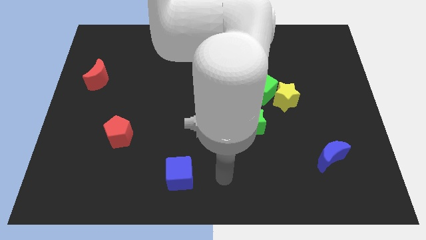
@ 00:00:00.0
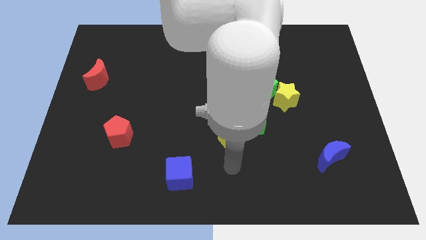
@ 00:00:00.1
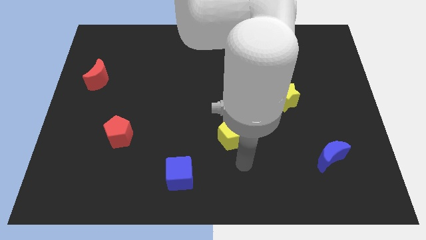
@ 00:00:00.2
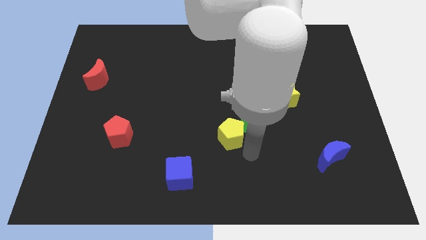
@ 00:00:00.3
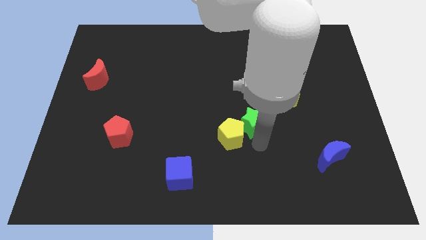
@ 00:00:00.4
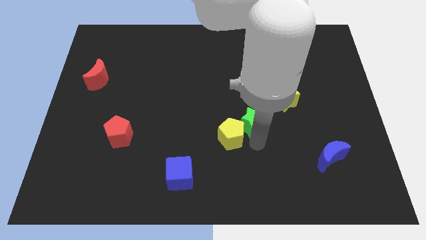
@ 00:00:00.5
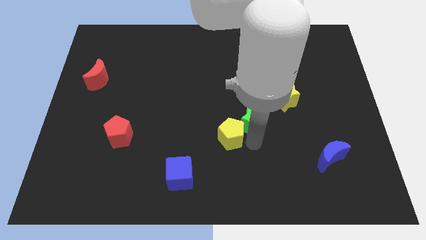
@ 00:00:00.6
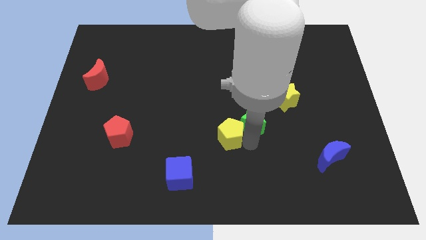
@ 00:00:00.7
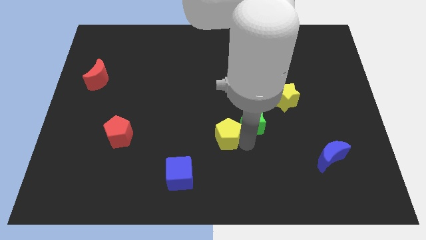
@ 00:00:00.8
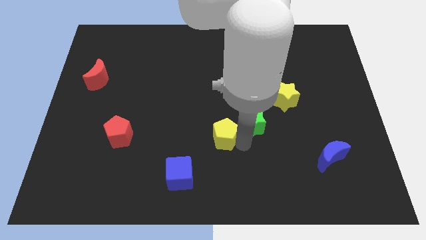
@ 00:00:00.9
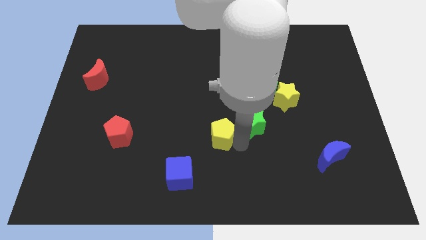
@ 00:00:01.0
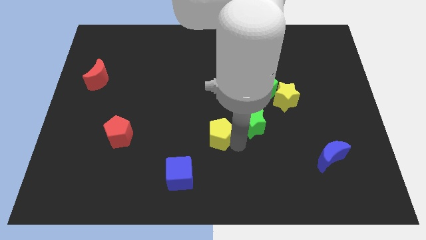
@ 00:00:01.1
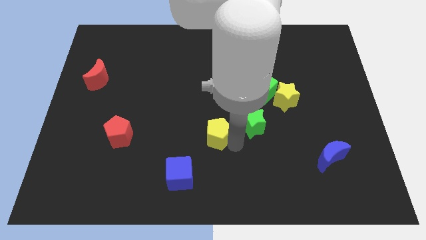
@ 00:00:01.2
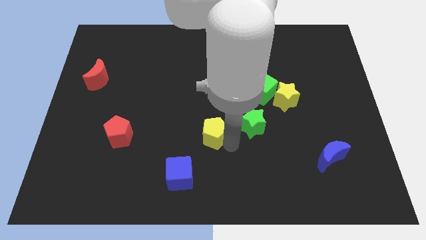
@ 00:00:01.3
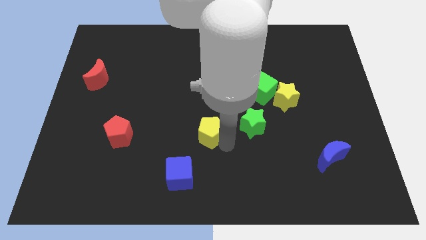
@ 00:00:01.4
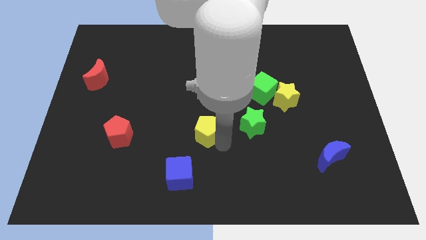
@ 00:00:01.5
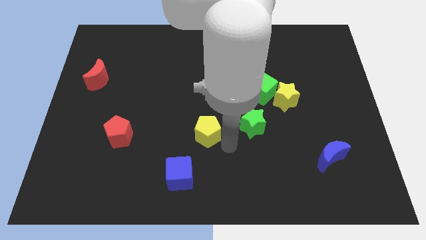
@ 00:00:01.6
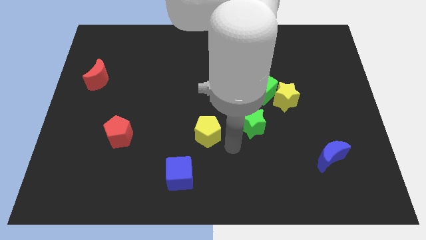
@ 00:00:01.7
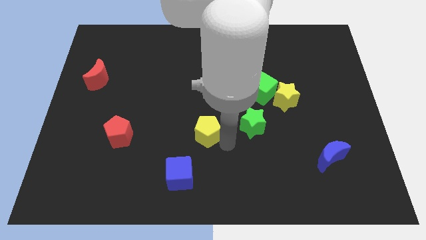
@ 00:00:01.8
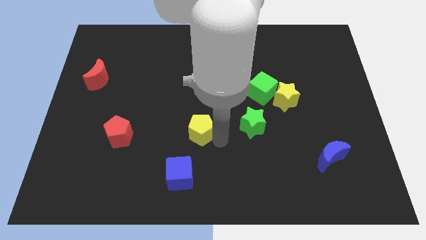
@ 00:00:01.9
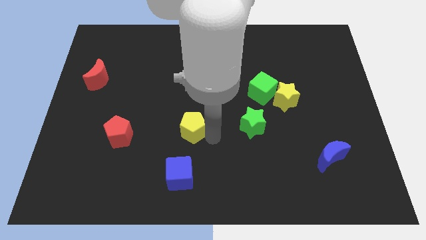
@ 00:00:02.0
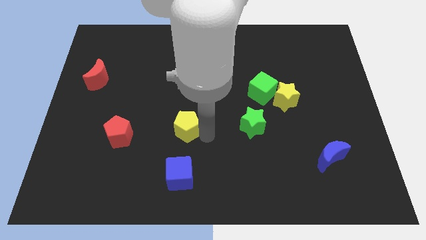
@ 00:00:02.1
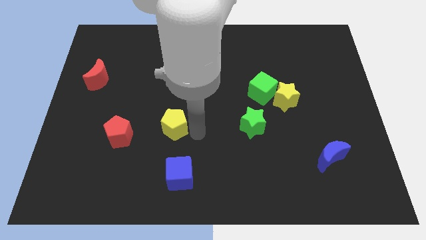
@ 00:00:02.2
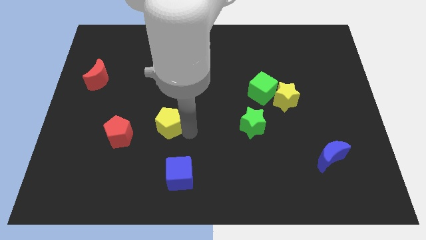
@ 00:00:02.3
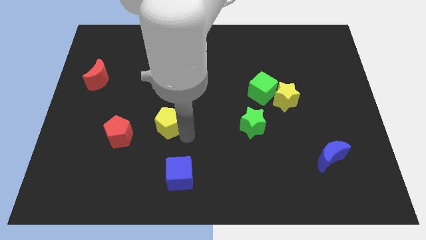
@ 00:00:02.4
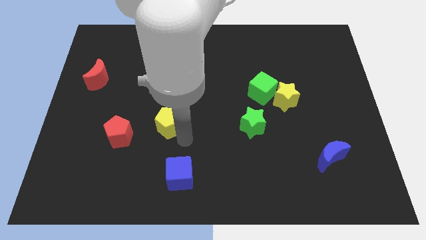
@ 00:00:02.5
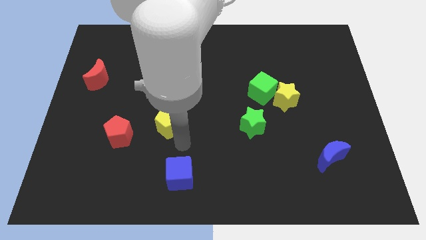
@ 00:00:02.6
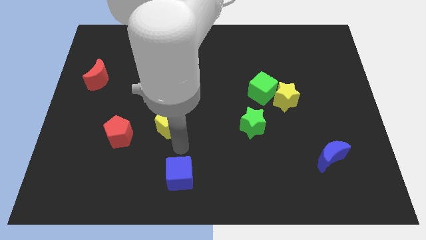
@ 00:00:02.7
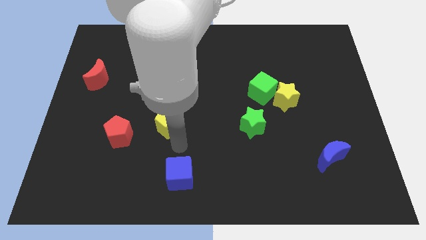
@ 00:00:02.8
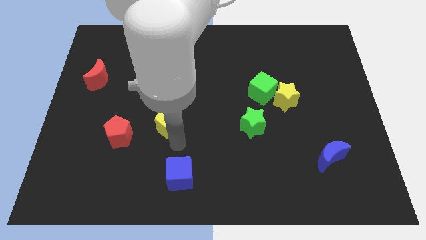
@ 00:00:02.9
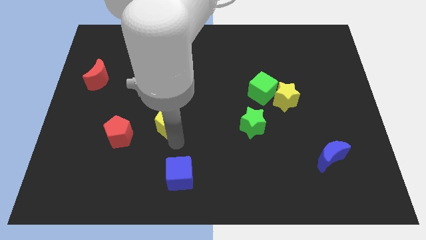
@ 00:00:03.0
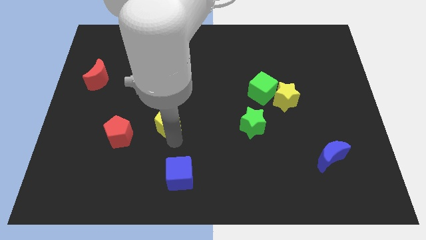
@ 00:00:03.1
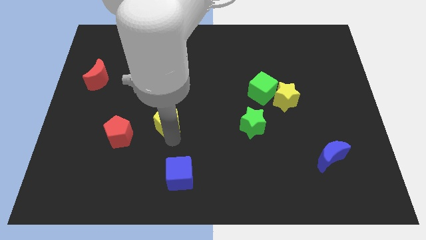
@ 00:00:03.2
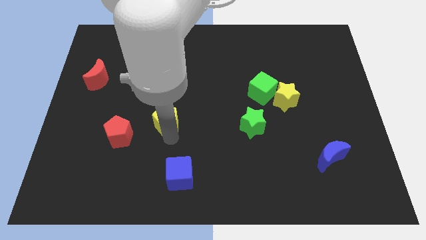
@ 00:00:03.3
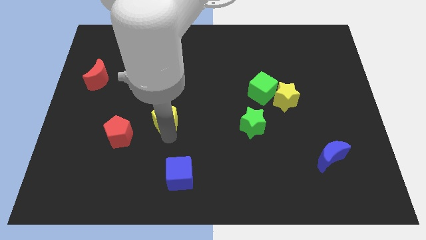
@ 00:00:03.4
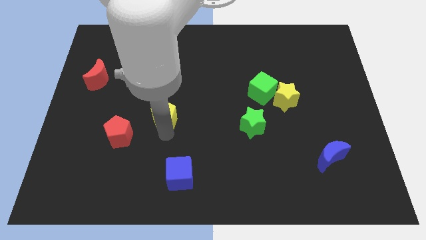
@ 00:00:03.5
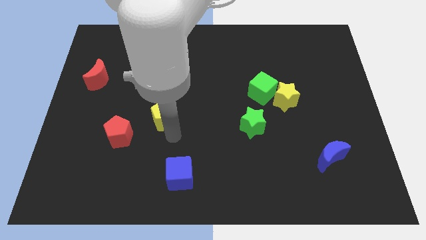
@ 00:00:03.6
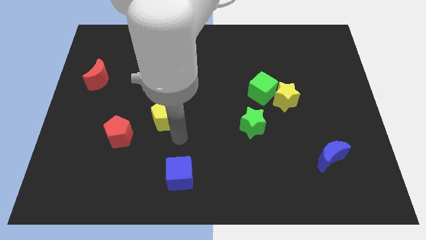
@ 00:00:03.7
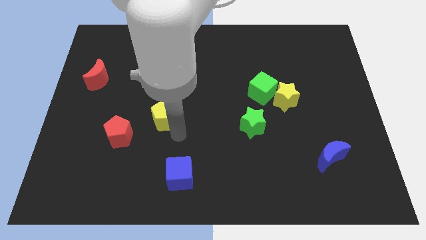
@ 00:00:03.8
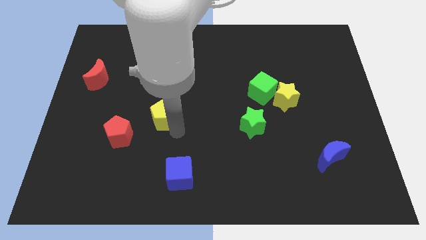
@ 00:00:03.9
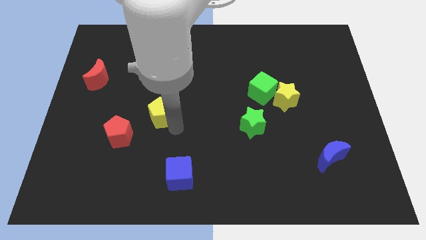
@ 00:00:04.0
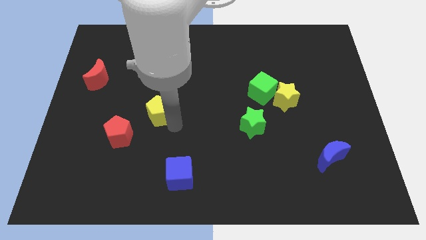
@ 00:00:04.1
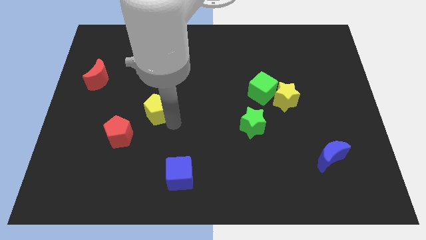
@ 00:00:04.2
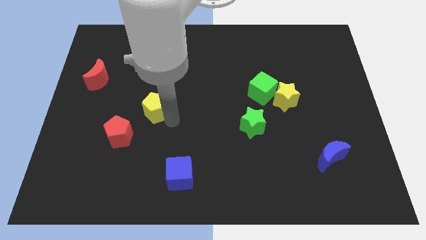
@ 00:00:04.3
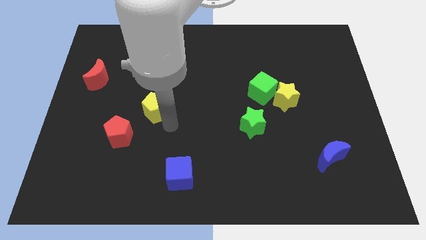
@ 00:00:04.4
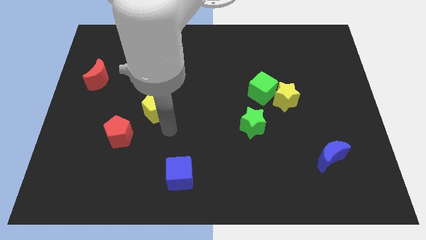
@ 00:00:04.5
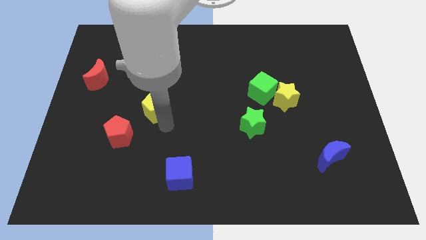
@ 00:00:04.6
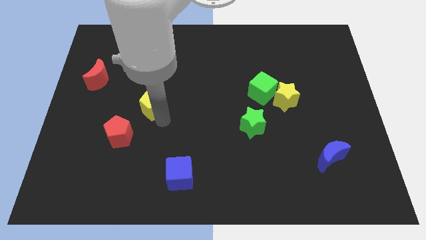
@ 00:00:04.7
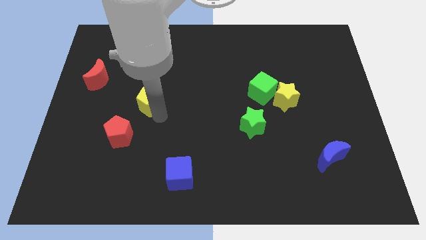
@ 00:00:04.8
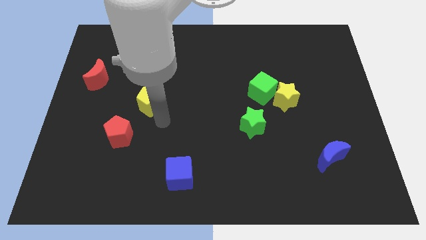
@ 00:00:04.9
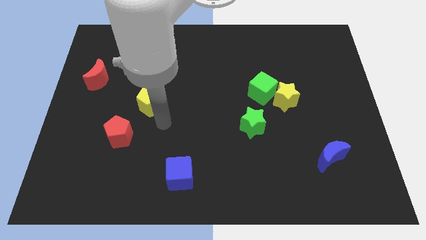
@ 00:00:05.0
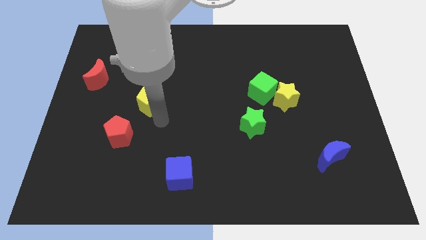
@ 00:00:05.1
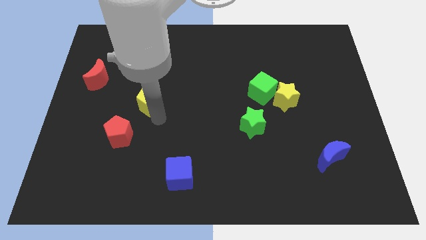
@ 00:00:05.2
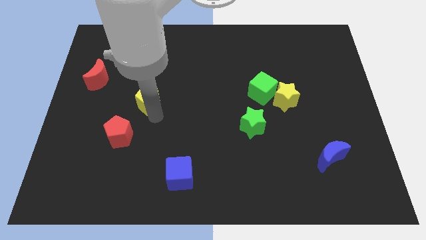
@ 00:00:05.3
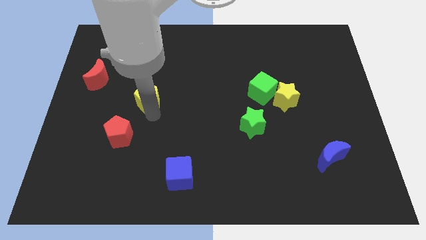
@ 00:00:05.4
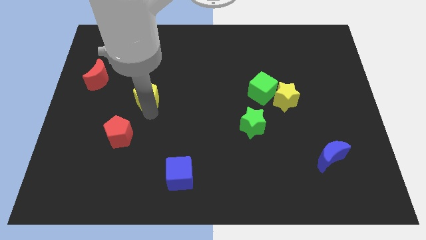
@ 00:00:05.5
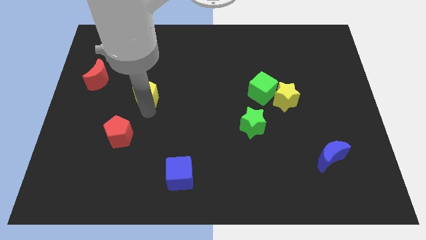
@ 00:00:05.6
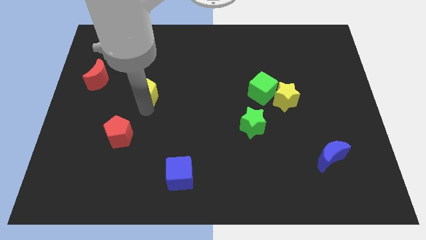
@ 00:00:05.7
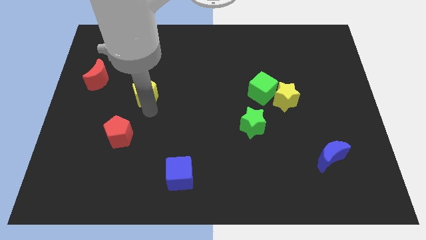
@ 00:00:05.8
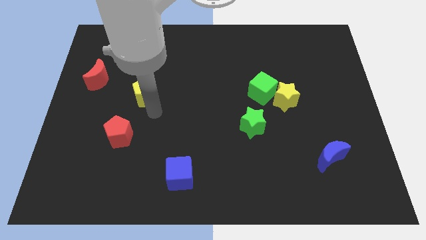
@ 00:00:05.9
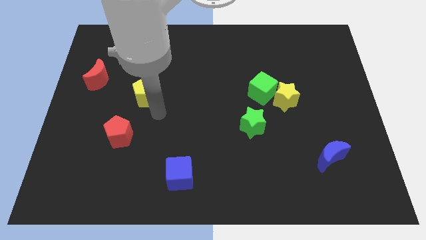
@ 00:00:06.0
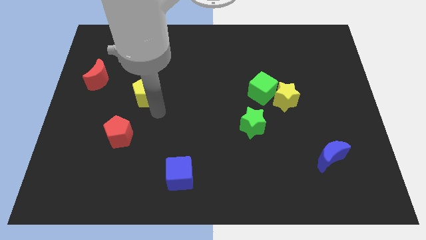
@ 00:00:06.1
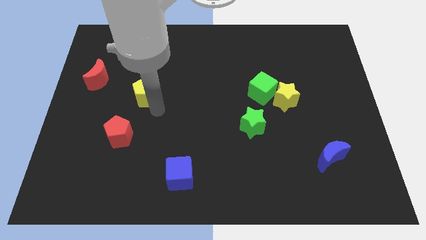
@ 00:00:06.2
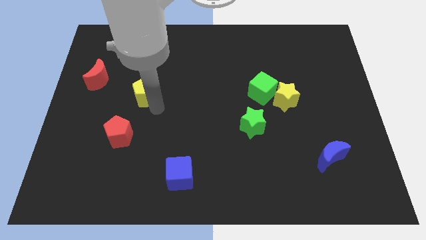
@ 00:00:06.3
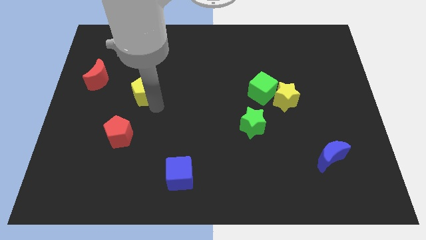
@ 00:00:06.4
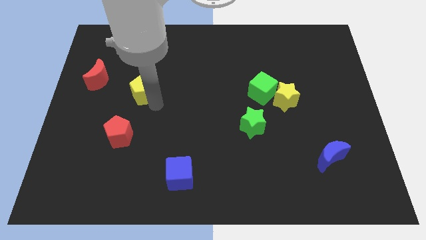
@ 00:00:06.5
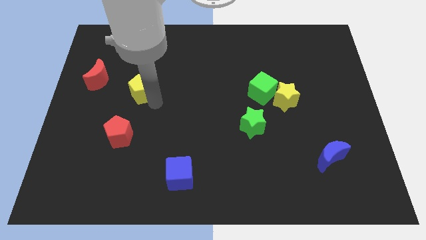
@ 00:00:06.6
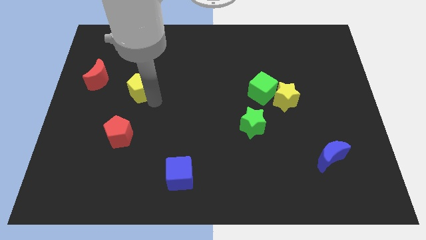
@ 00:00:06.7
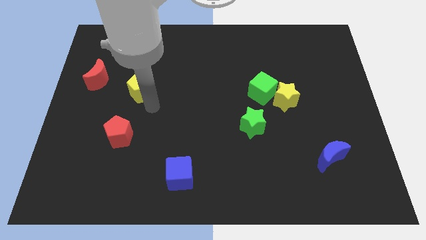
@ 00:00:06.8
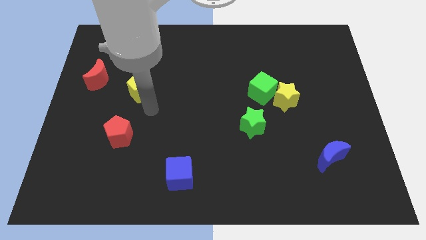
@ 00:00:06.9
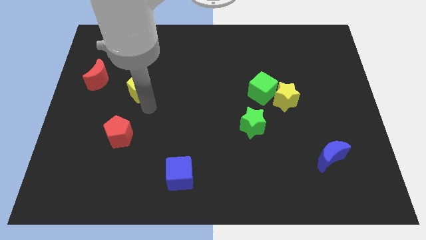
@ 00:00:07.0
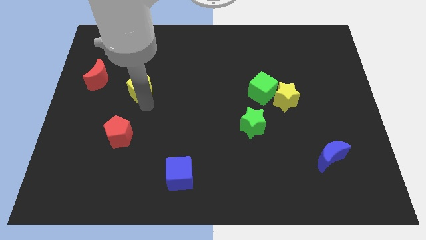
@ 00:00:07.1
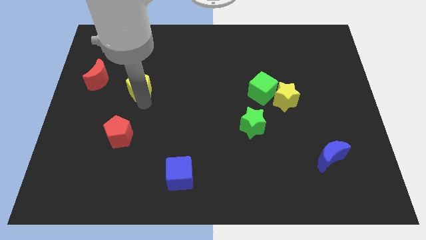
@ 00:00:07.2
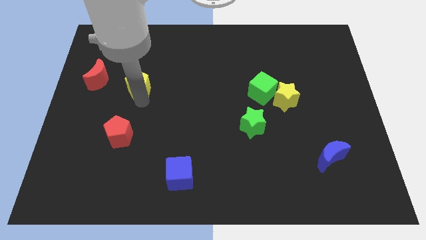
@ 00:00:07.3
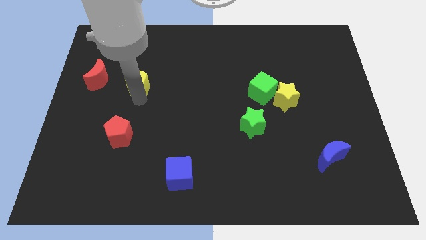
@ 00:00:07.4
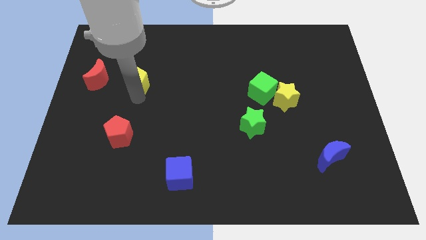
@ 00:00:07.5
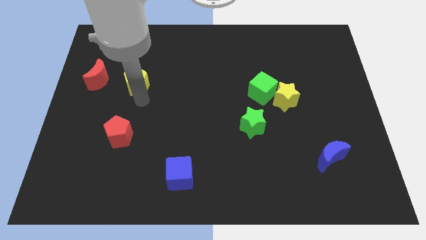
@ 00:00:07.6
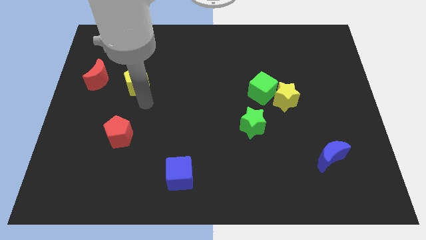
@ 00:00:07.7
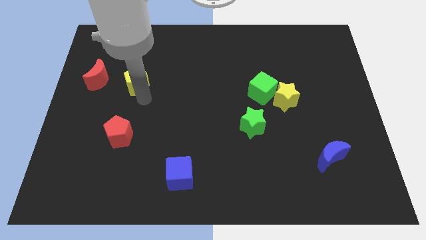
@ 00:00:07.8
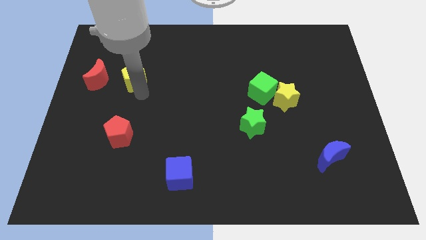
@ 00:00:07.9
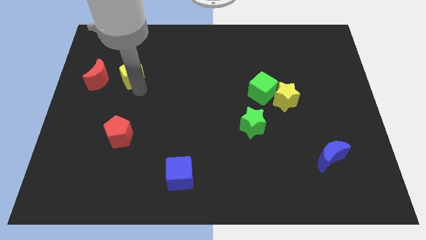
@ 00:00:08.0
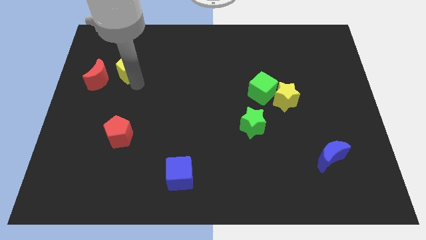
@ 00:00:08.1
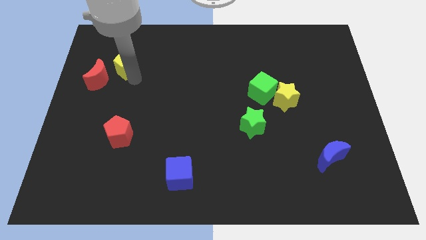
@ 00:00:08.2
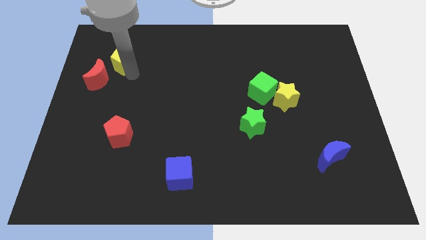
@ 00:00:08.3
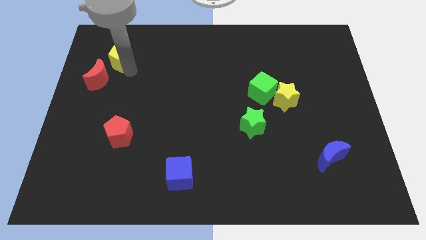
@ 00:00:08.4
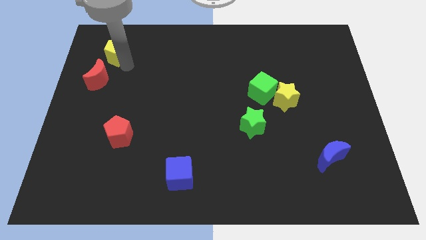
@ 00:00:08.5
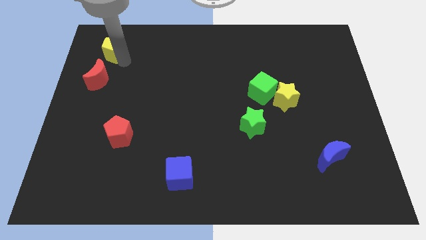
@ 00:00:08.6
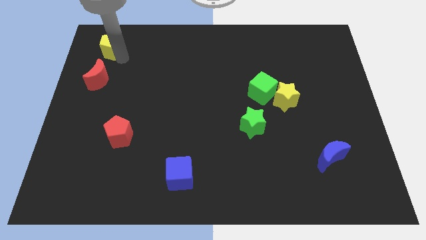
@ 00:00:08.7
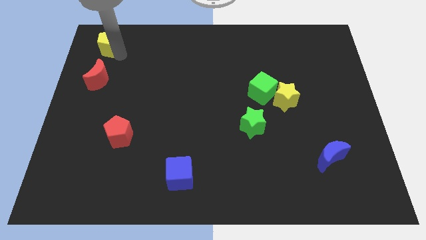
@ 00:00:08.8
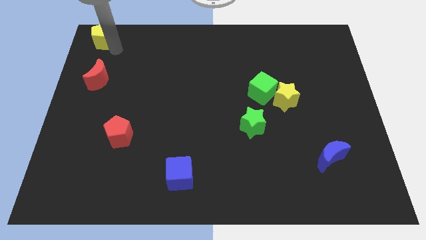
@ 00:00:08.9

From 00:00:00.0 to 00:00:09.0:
push the yellow pentagon to the upper left corner
